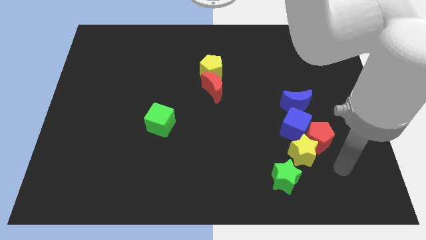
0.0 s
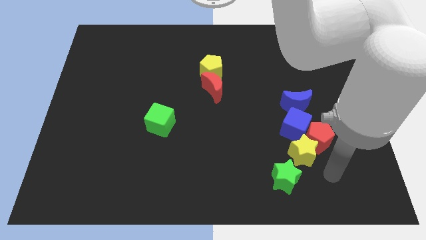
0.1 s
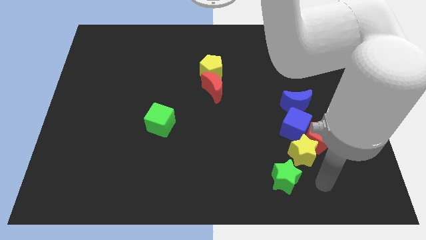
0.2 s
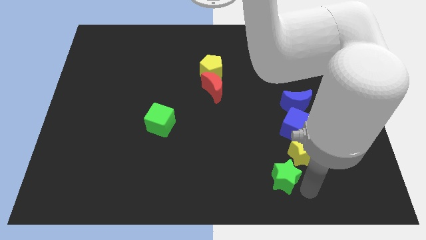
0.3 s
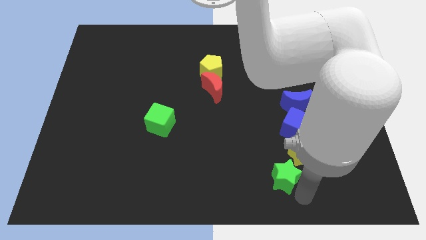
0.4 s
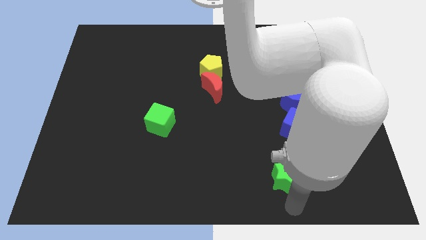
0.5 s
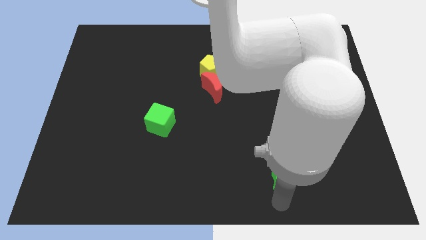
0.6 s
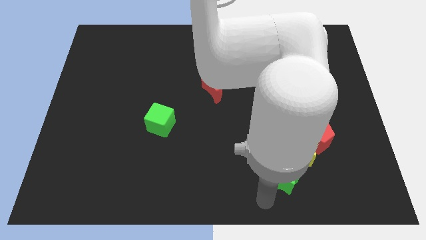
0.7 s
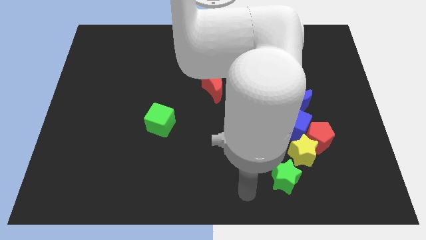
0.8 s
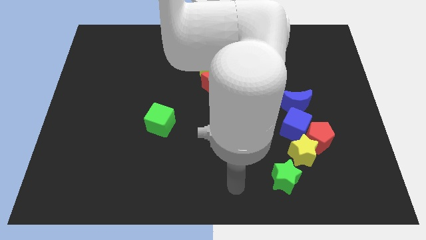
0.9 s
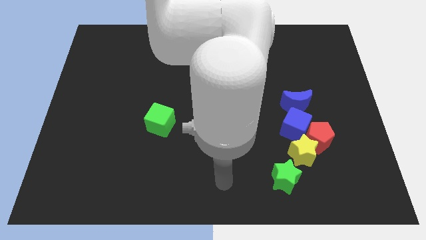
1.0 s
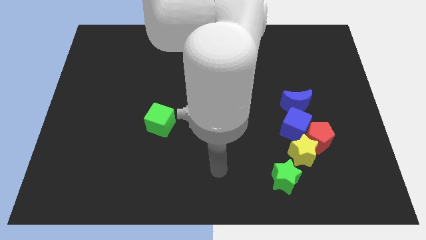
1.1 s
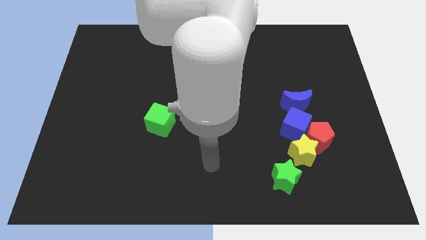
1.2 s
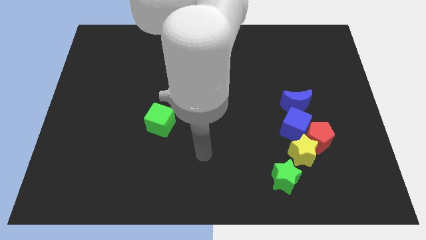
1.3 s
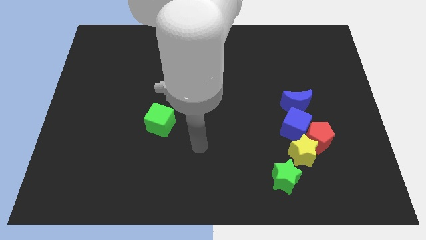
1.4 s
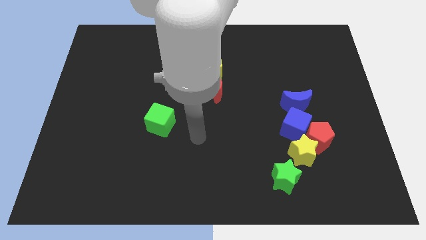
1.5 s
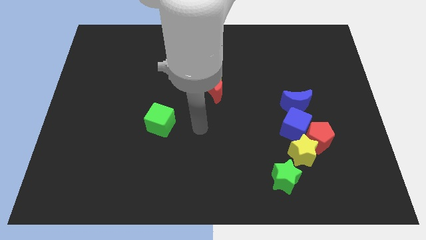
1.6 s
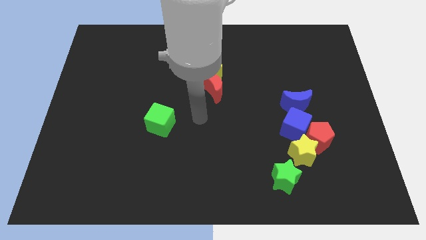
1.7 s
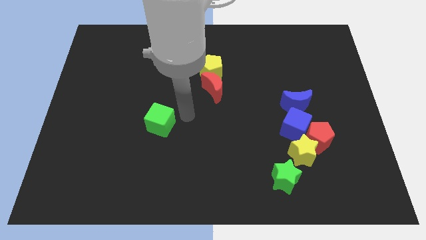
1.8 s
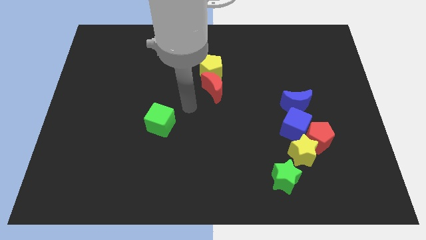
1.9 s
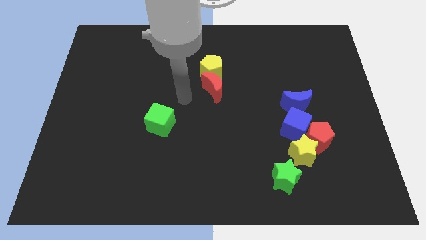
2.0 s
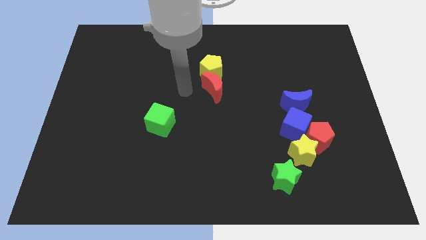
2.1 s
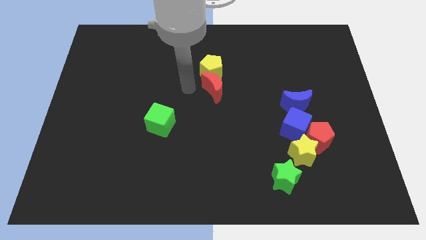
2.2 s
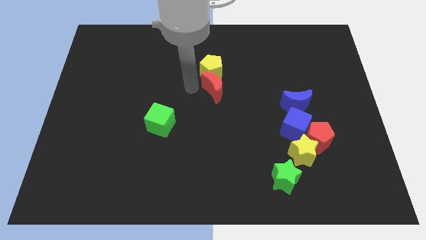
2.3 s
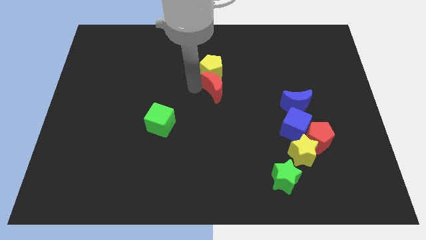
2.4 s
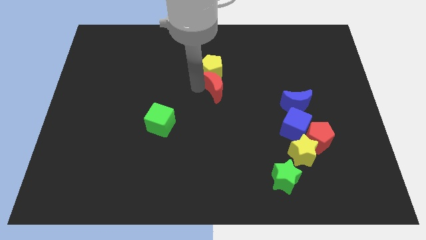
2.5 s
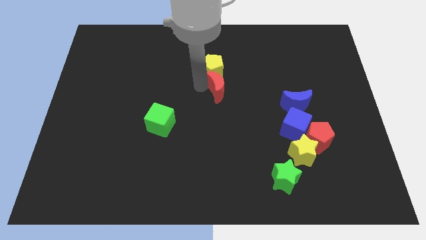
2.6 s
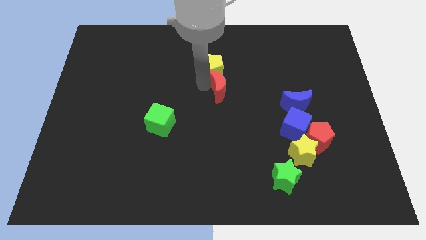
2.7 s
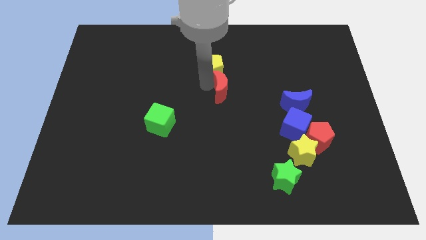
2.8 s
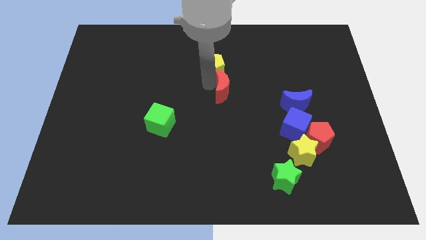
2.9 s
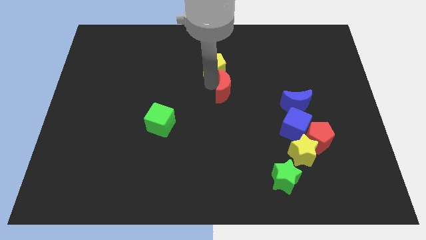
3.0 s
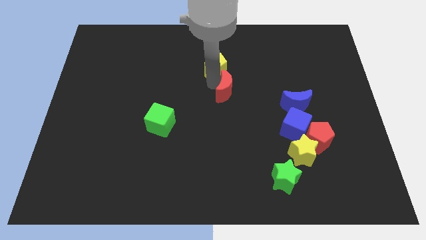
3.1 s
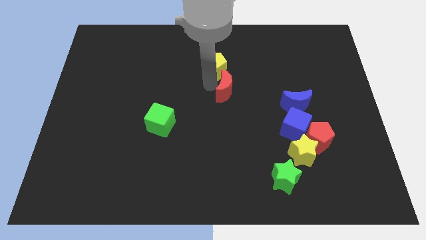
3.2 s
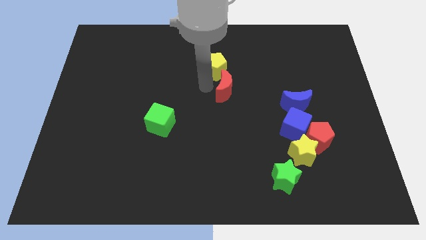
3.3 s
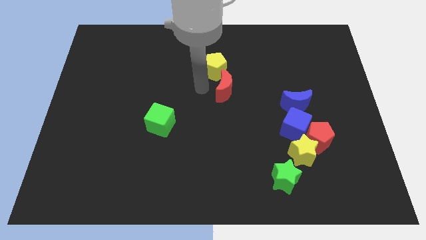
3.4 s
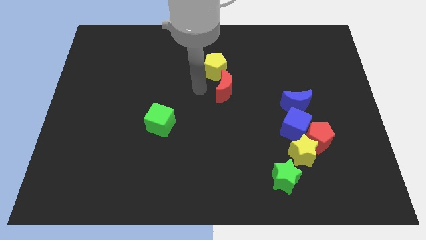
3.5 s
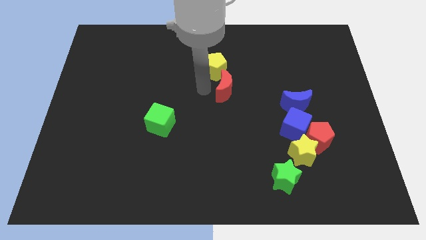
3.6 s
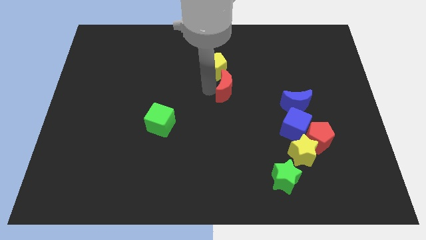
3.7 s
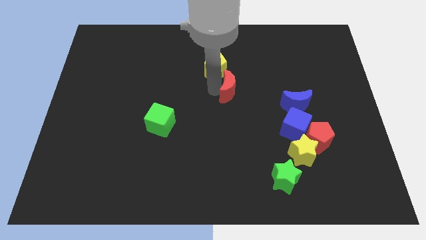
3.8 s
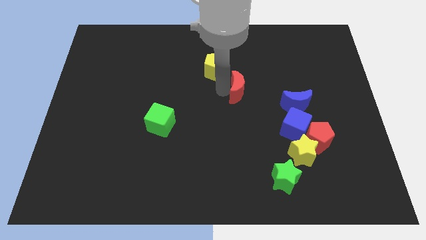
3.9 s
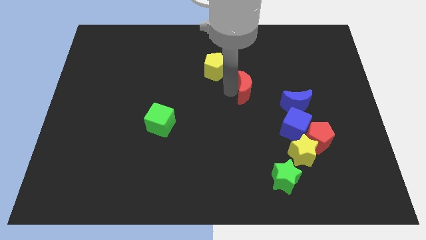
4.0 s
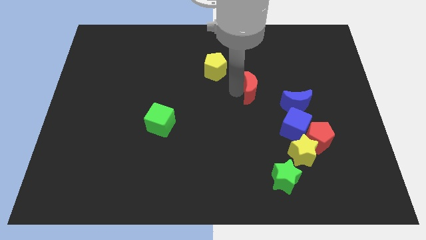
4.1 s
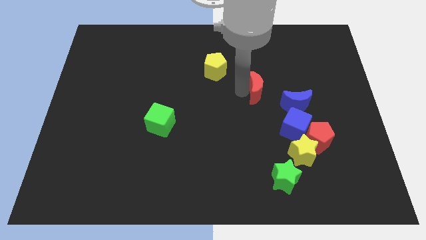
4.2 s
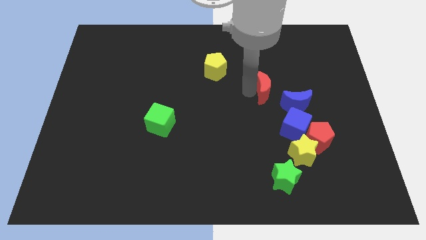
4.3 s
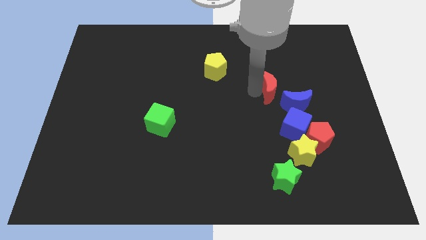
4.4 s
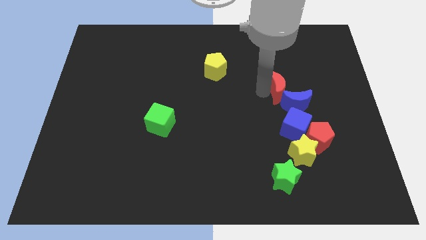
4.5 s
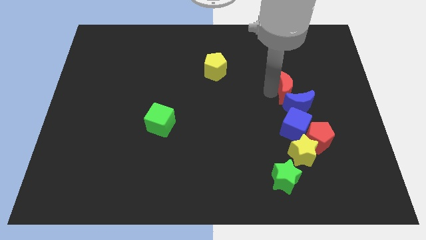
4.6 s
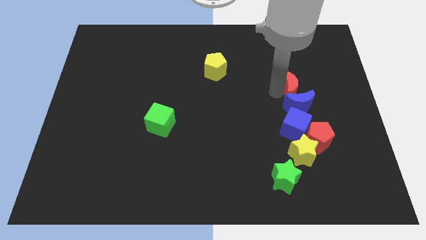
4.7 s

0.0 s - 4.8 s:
put the red moon above the red pentagon

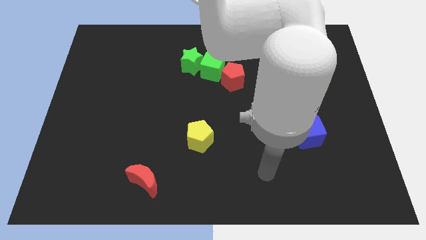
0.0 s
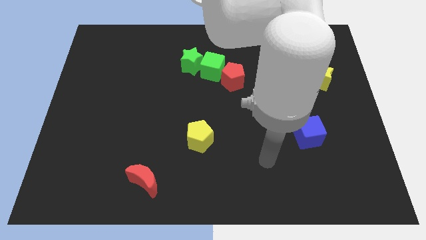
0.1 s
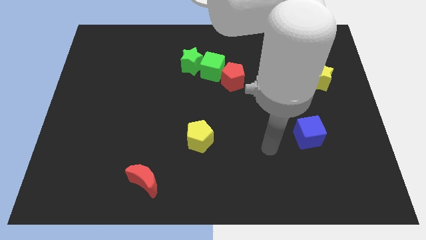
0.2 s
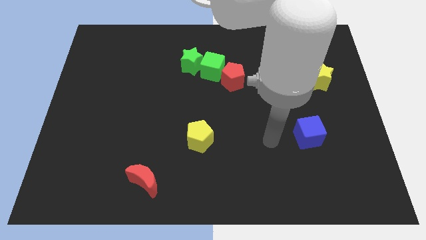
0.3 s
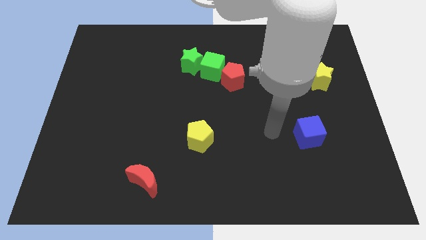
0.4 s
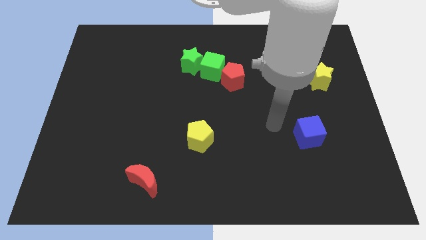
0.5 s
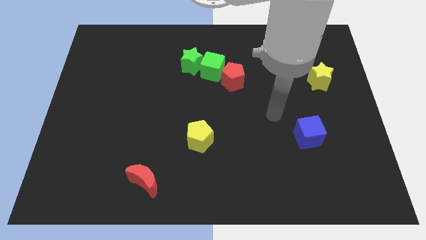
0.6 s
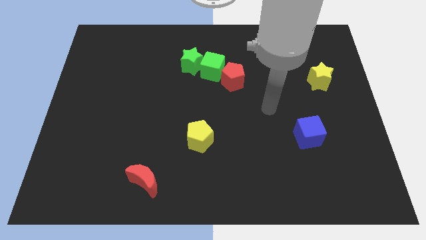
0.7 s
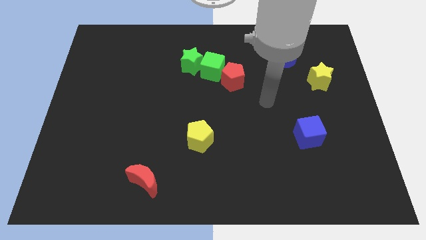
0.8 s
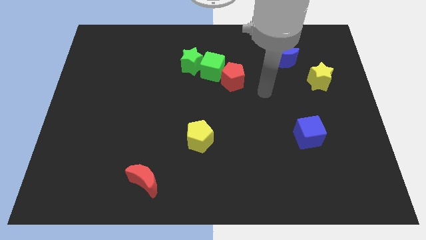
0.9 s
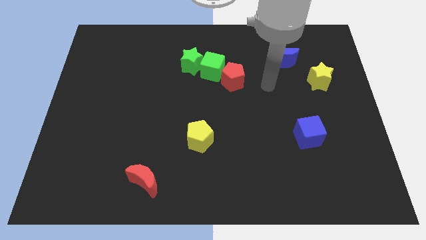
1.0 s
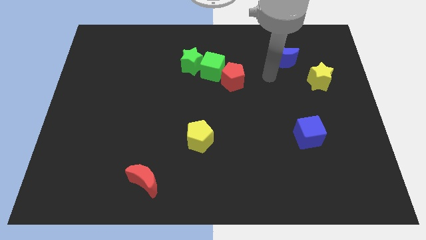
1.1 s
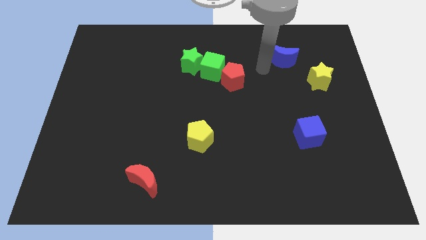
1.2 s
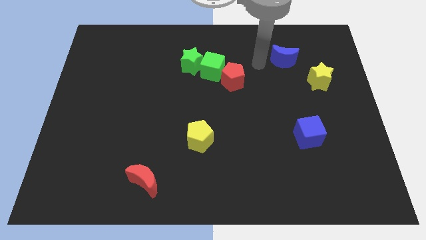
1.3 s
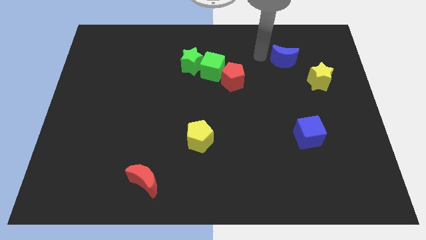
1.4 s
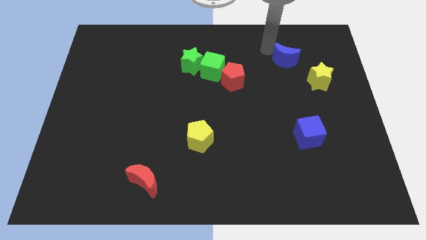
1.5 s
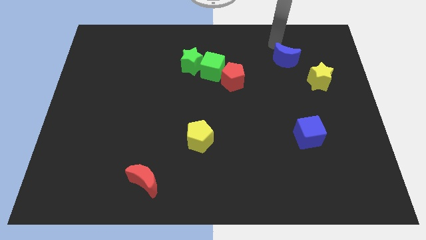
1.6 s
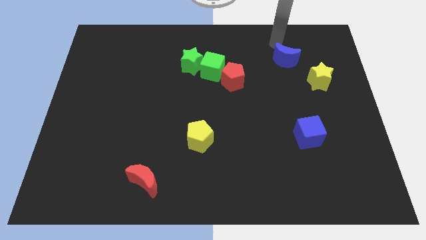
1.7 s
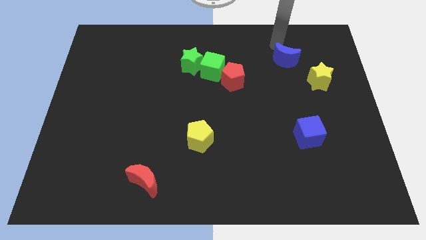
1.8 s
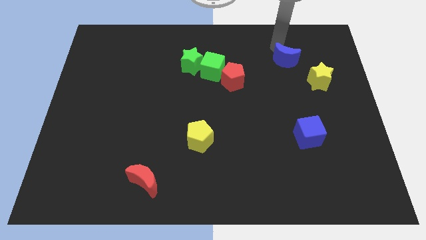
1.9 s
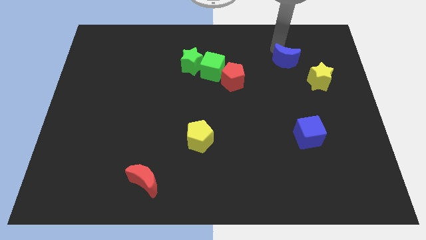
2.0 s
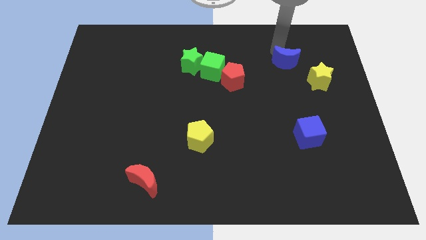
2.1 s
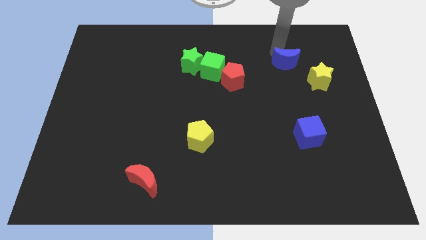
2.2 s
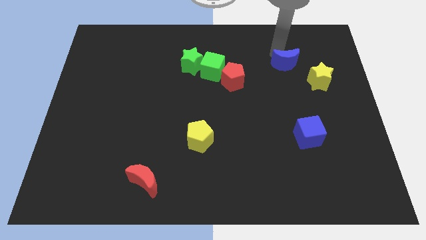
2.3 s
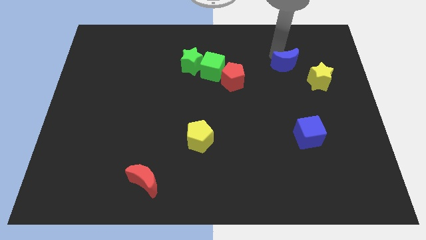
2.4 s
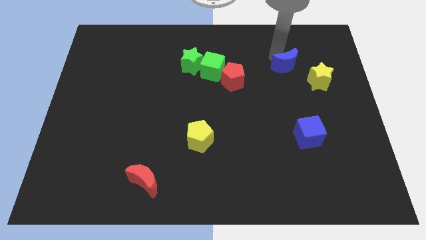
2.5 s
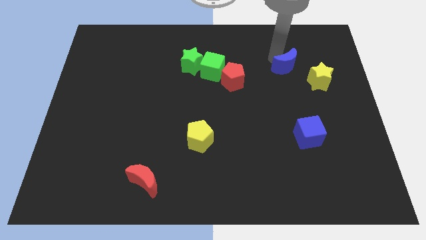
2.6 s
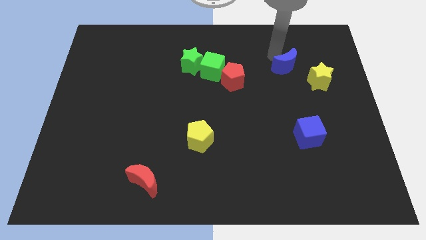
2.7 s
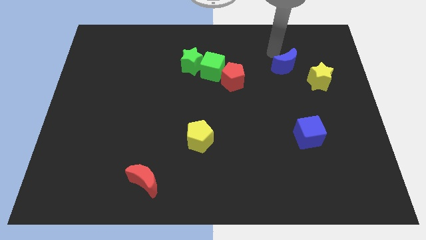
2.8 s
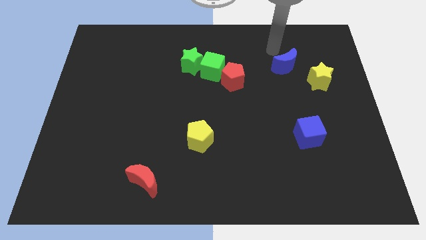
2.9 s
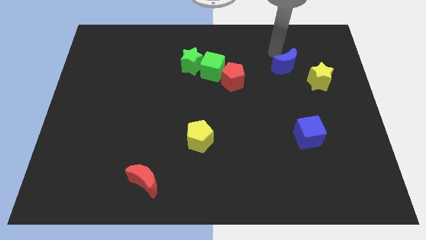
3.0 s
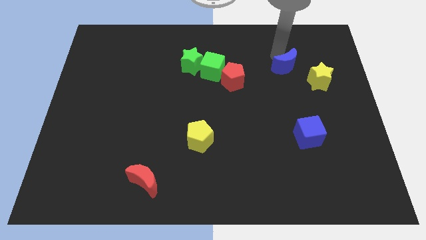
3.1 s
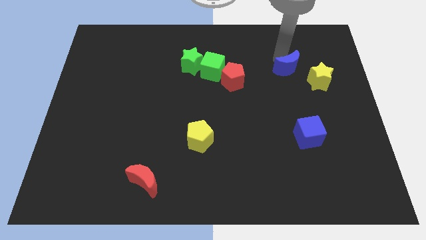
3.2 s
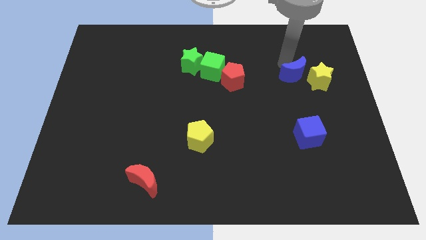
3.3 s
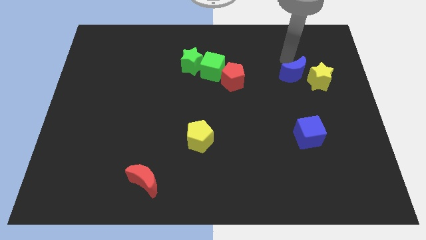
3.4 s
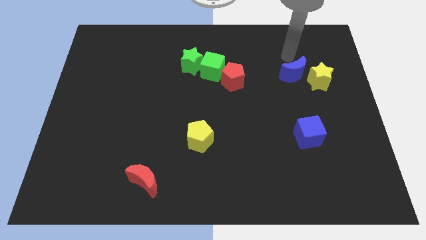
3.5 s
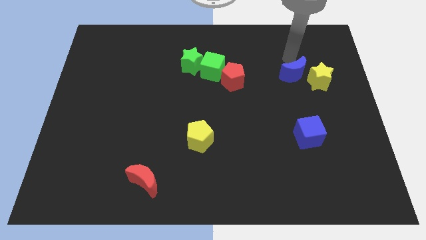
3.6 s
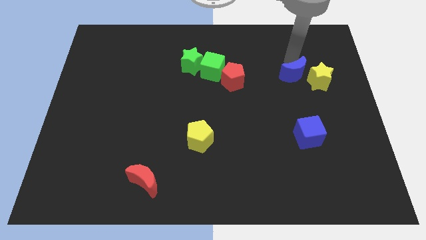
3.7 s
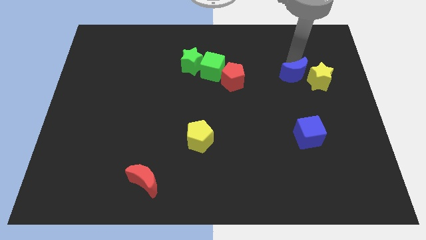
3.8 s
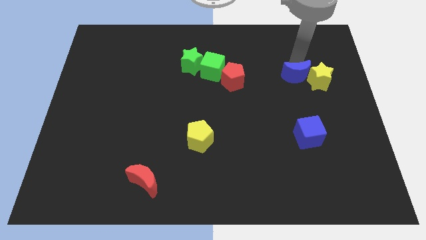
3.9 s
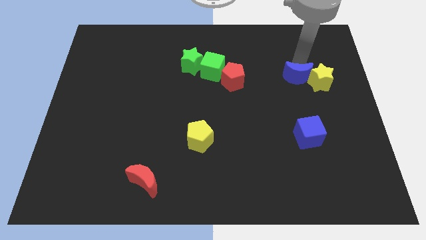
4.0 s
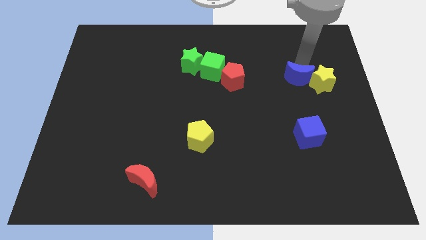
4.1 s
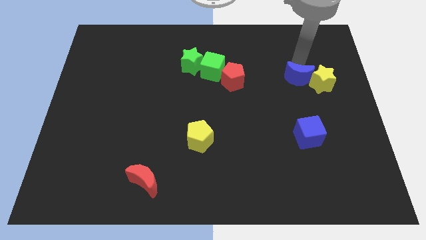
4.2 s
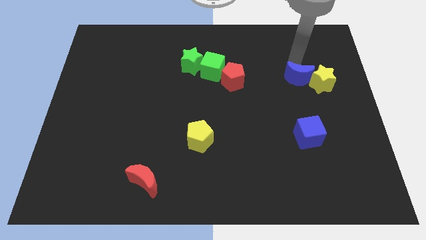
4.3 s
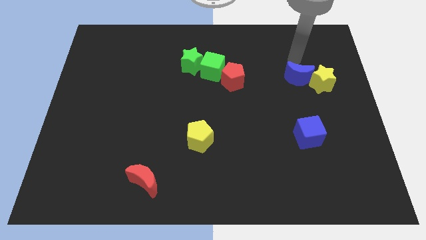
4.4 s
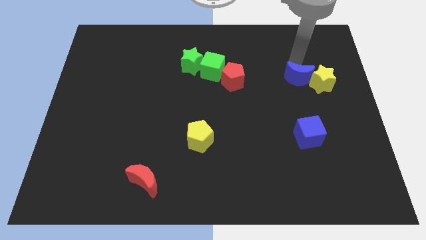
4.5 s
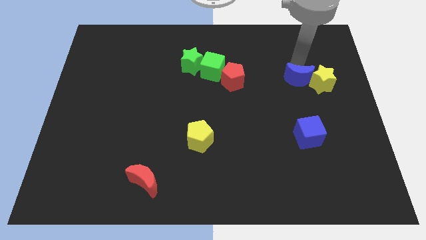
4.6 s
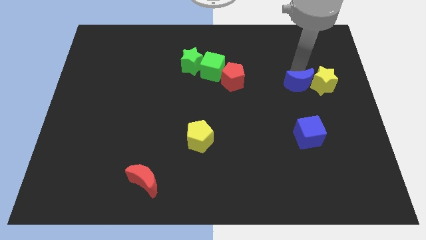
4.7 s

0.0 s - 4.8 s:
push the blue moon above the blue cube
